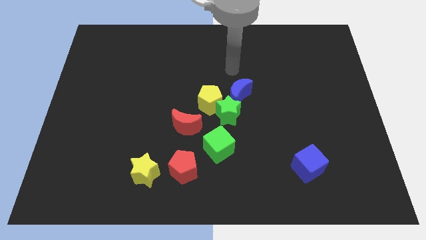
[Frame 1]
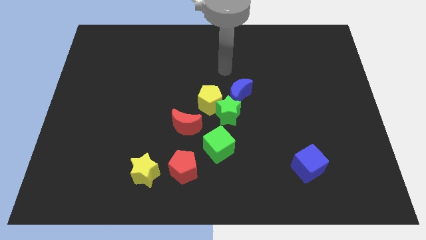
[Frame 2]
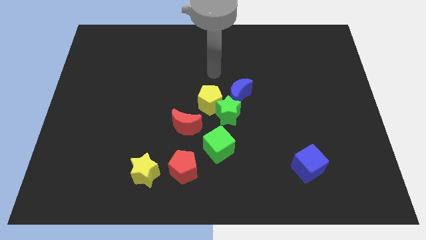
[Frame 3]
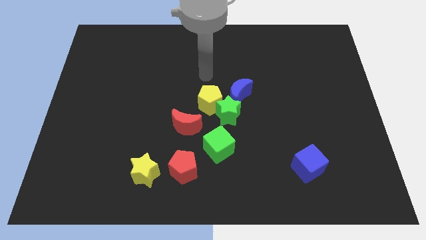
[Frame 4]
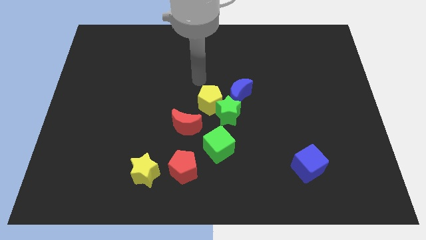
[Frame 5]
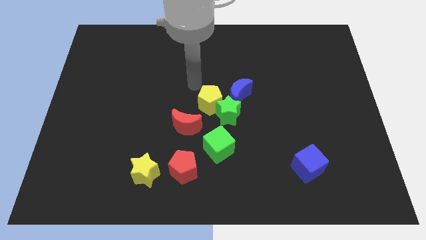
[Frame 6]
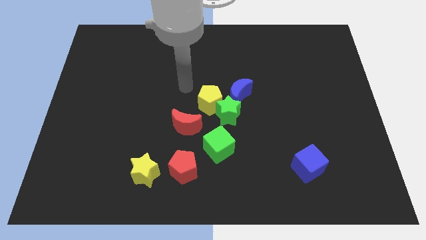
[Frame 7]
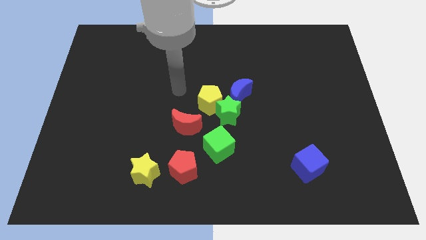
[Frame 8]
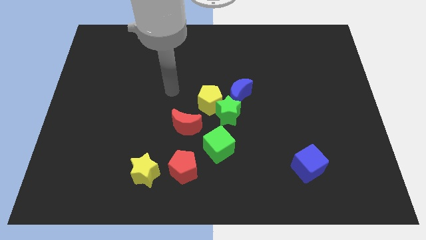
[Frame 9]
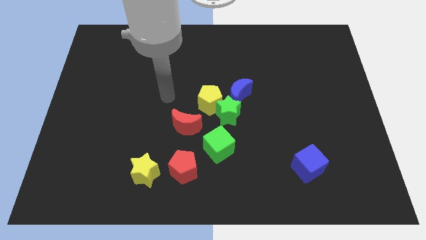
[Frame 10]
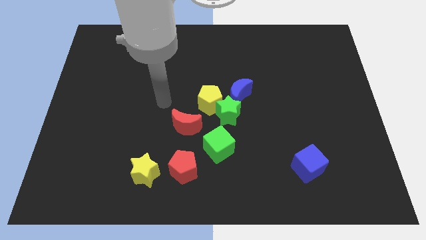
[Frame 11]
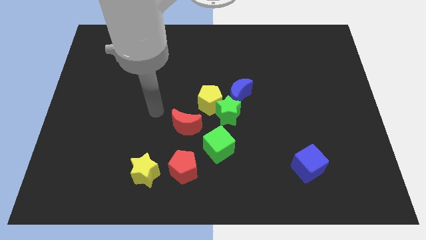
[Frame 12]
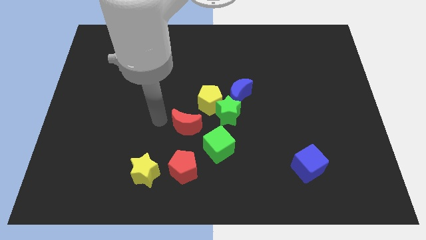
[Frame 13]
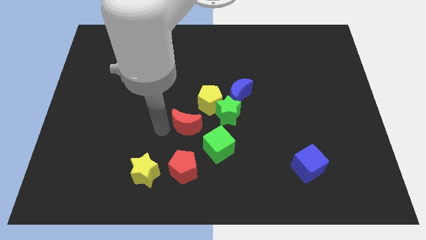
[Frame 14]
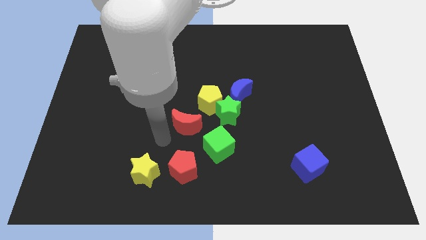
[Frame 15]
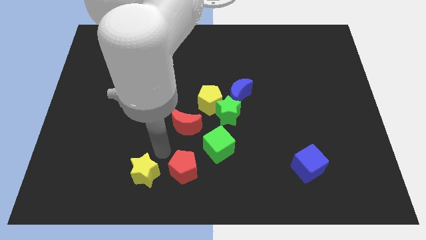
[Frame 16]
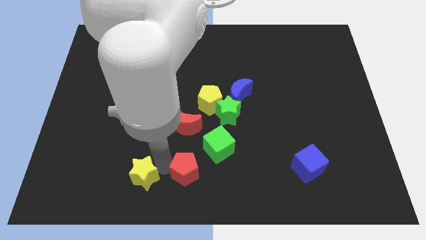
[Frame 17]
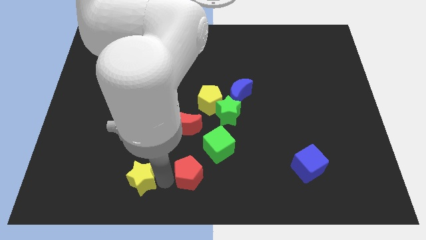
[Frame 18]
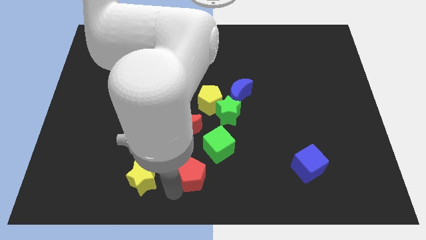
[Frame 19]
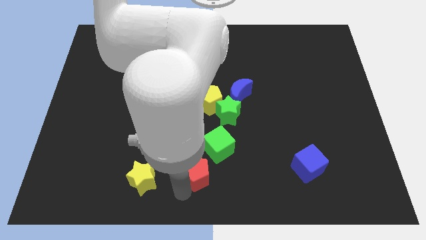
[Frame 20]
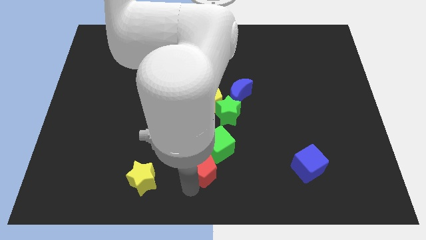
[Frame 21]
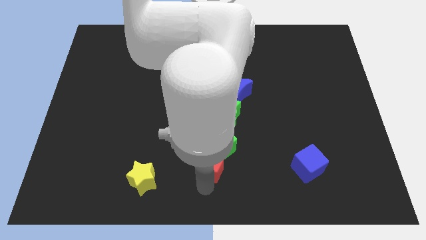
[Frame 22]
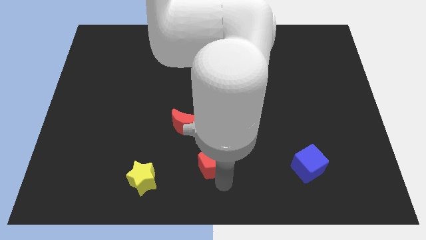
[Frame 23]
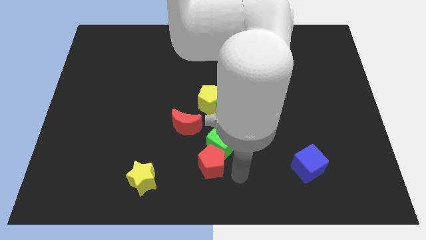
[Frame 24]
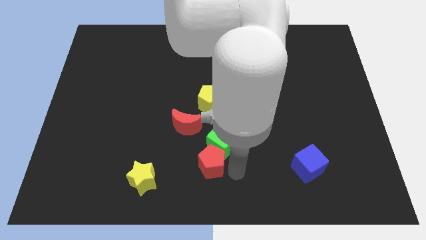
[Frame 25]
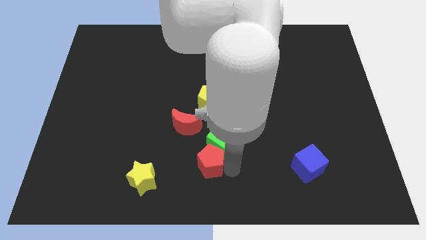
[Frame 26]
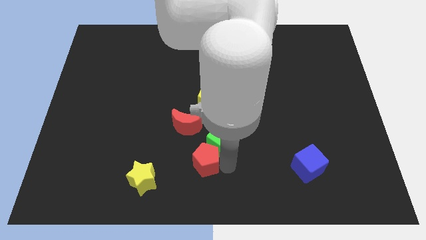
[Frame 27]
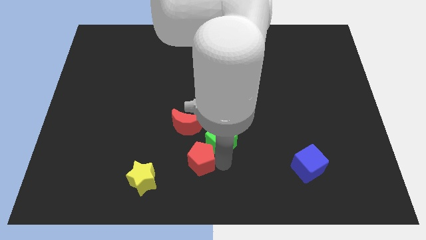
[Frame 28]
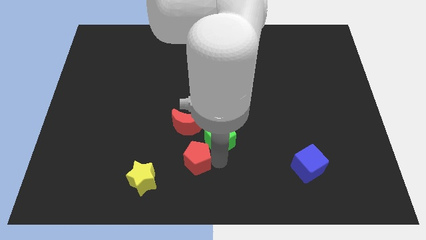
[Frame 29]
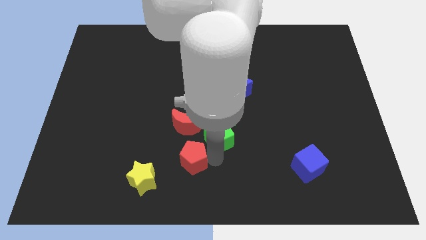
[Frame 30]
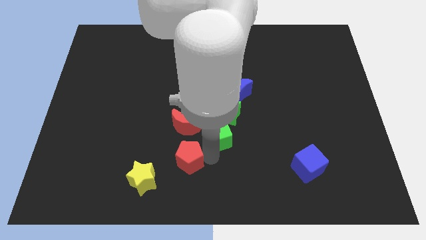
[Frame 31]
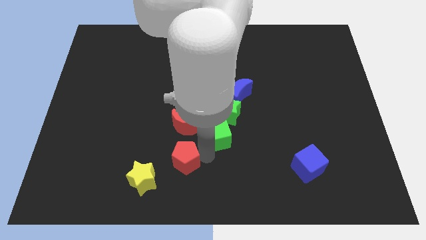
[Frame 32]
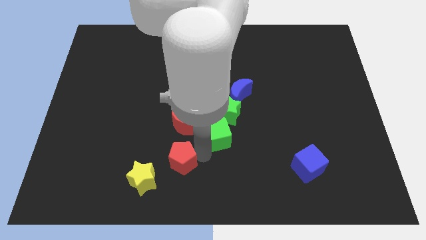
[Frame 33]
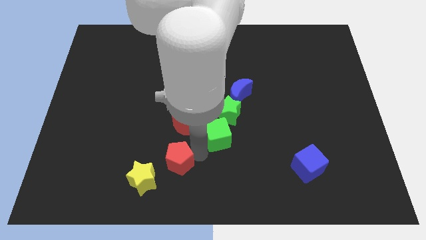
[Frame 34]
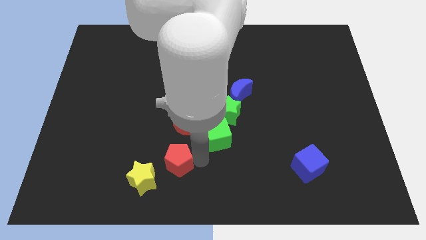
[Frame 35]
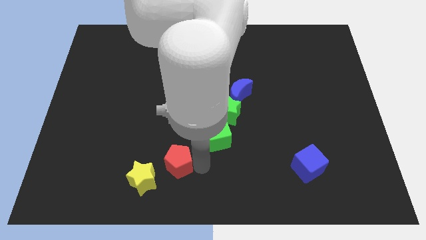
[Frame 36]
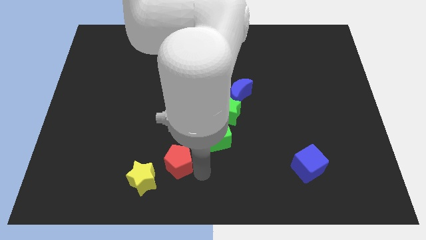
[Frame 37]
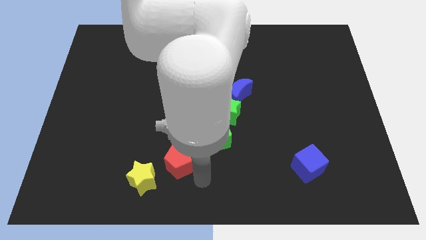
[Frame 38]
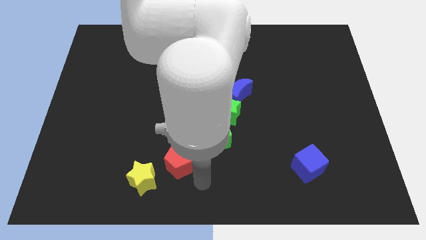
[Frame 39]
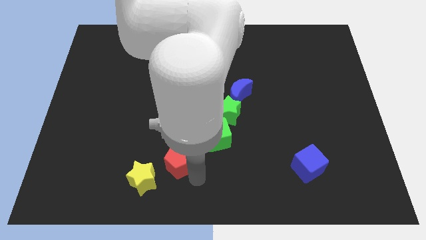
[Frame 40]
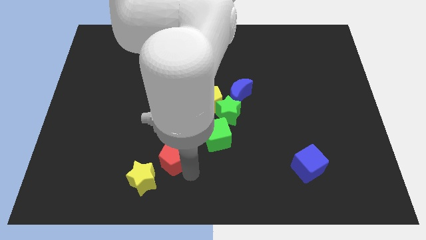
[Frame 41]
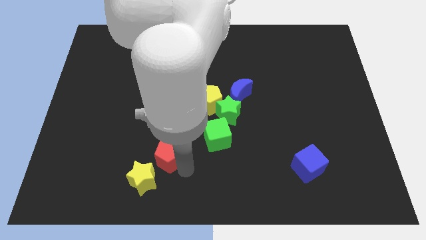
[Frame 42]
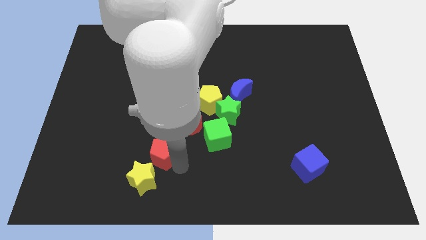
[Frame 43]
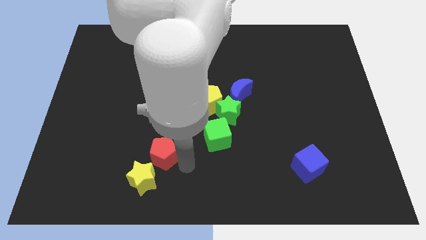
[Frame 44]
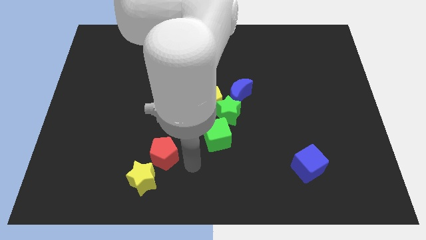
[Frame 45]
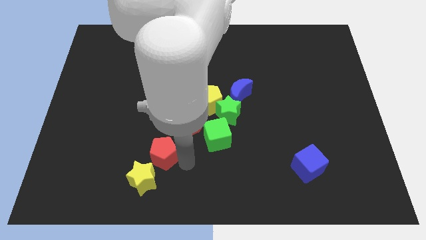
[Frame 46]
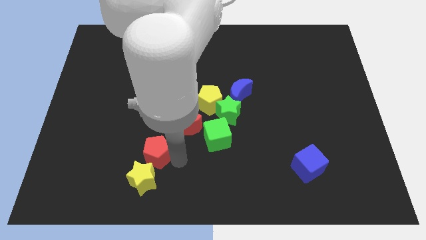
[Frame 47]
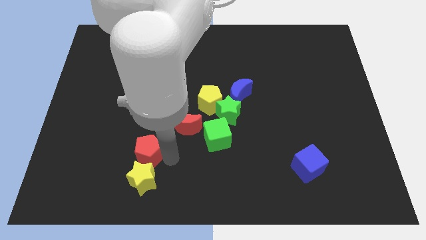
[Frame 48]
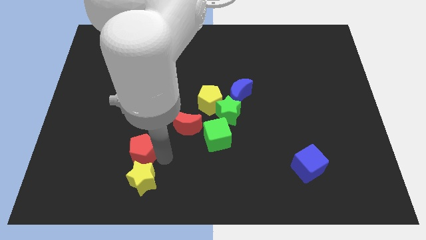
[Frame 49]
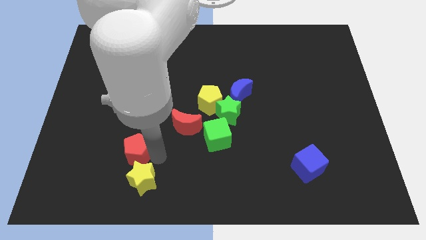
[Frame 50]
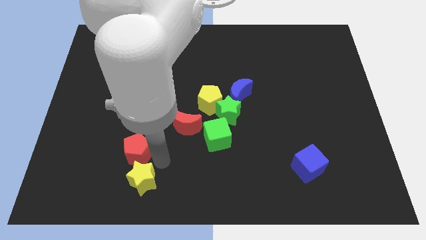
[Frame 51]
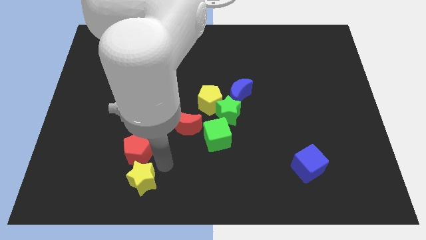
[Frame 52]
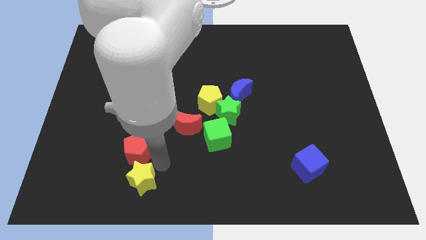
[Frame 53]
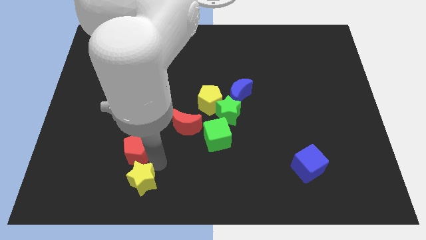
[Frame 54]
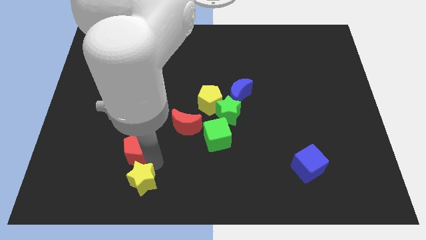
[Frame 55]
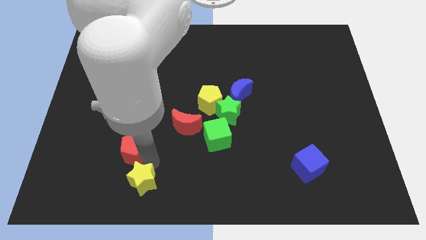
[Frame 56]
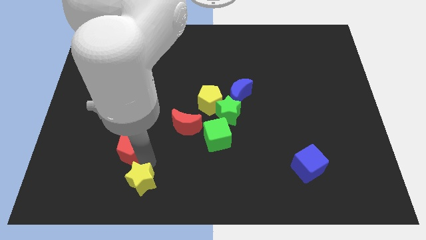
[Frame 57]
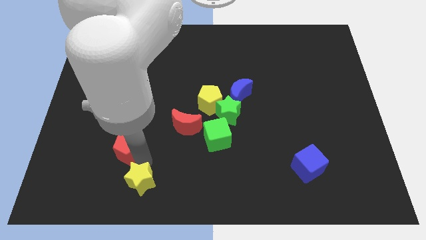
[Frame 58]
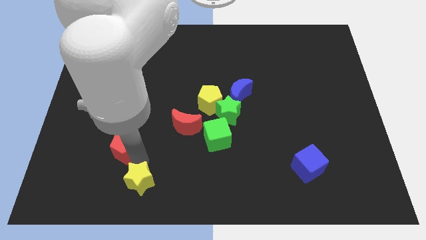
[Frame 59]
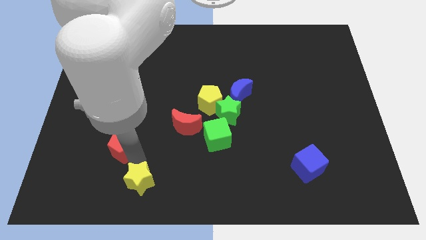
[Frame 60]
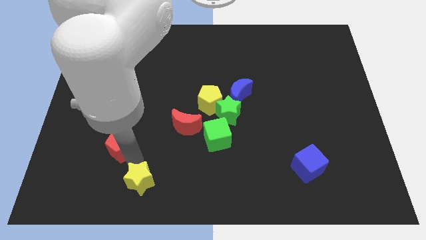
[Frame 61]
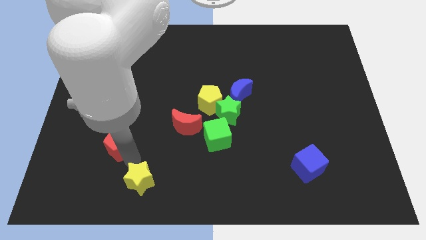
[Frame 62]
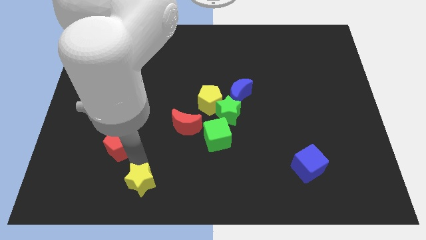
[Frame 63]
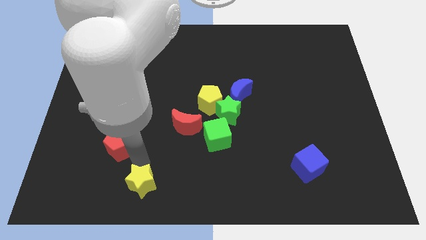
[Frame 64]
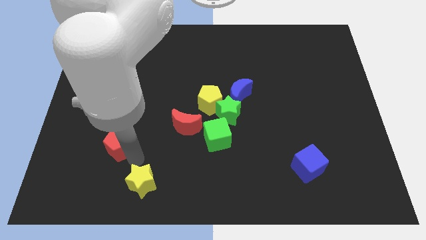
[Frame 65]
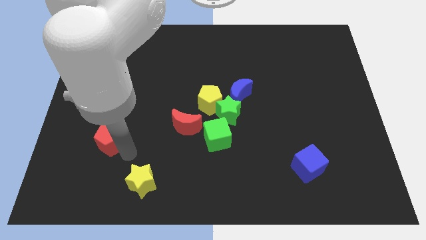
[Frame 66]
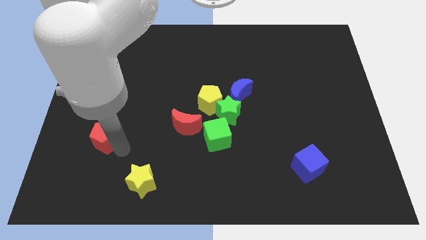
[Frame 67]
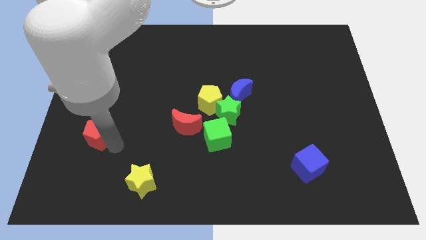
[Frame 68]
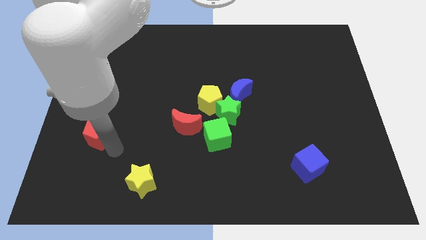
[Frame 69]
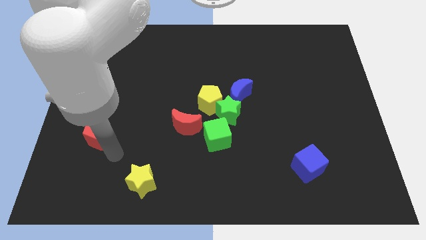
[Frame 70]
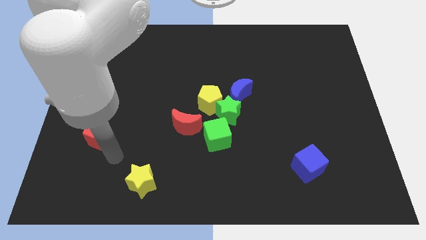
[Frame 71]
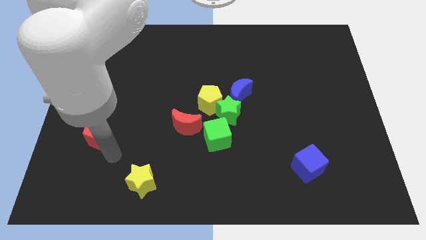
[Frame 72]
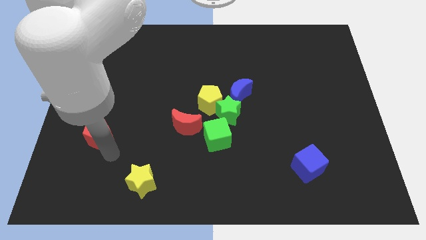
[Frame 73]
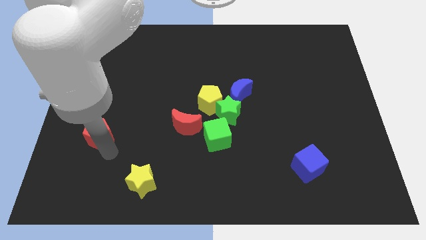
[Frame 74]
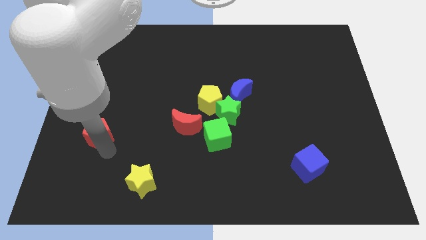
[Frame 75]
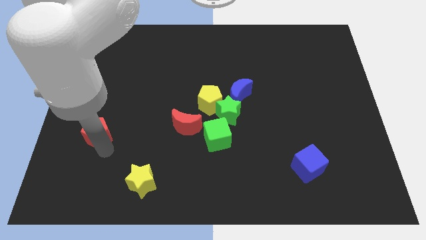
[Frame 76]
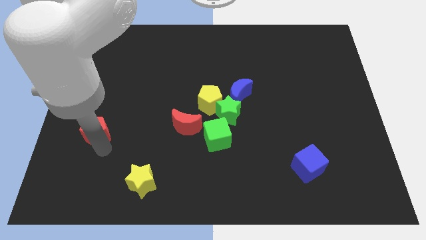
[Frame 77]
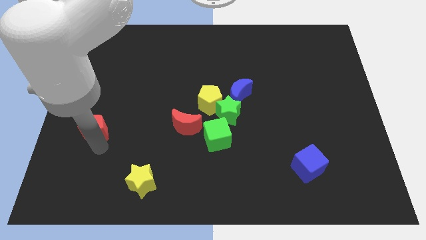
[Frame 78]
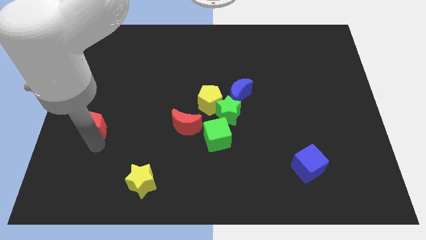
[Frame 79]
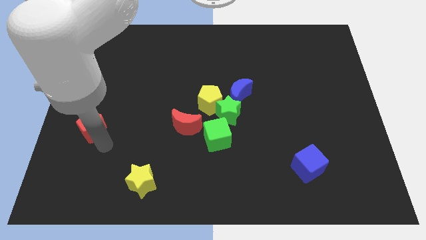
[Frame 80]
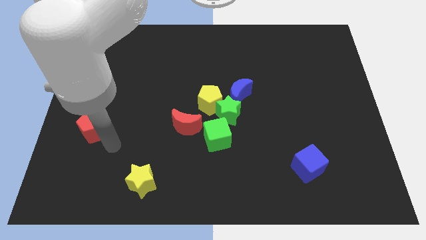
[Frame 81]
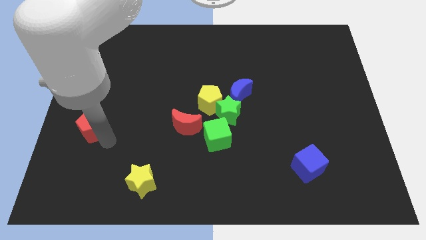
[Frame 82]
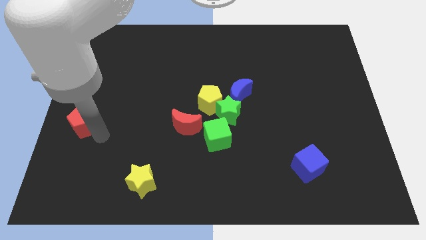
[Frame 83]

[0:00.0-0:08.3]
move the red pentagon to the left side
